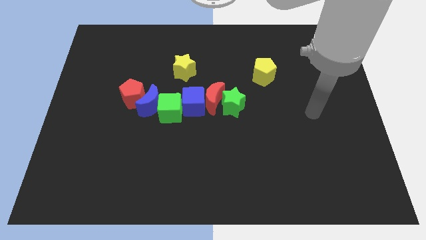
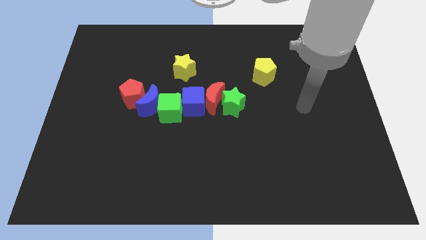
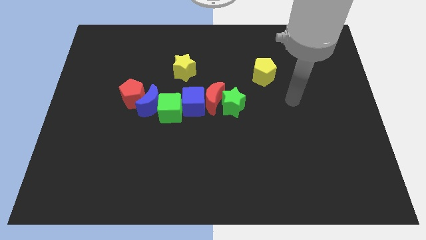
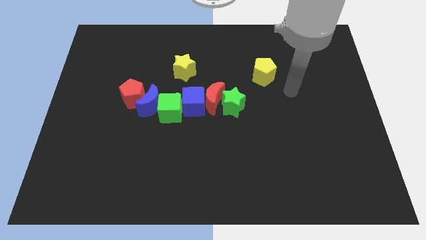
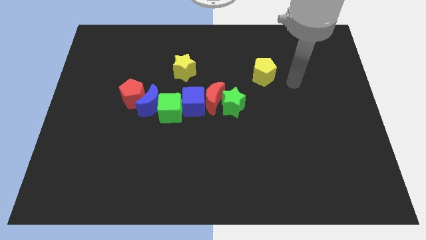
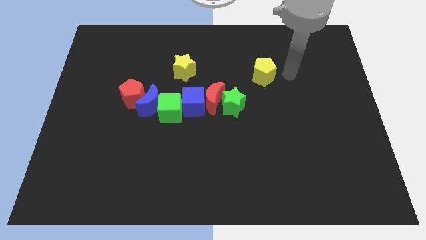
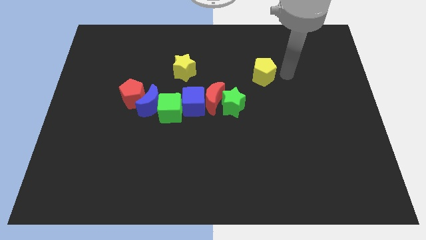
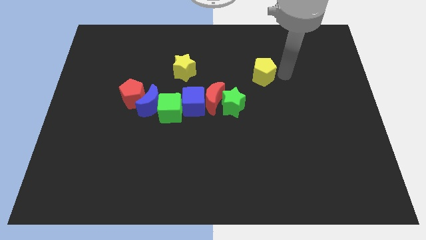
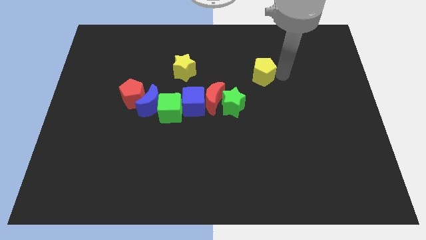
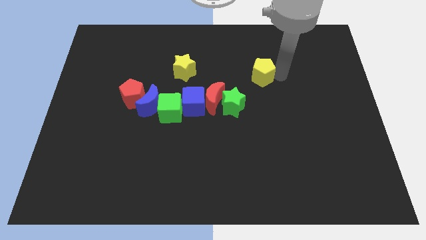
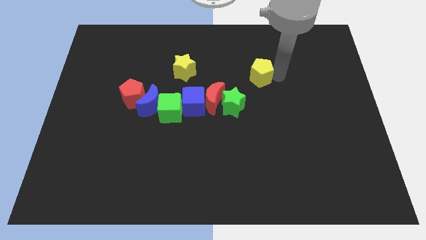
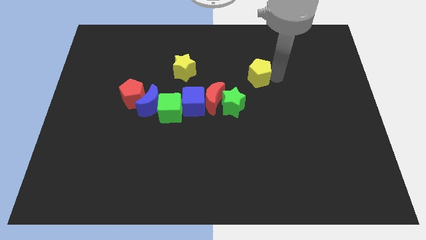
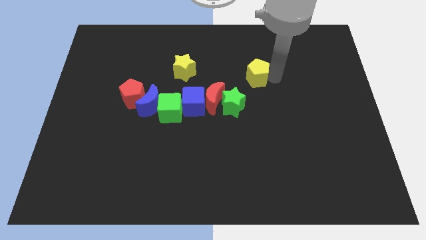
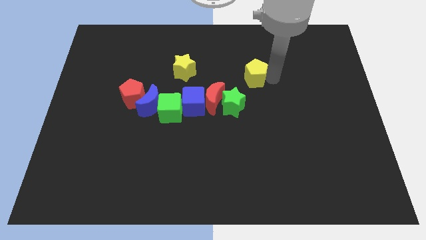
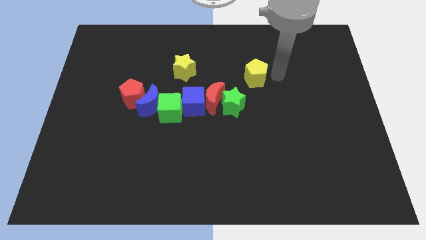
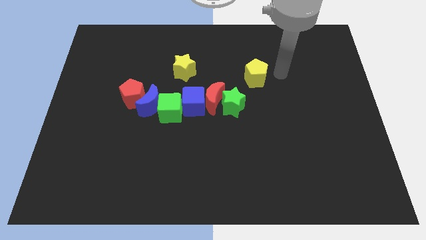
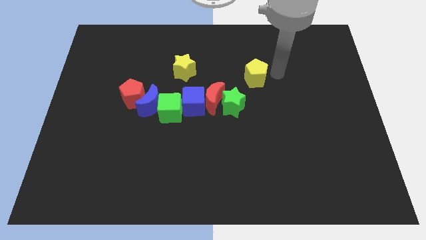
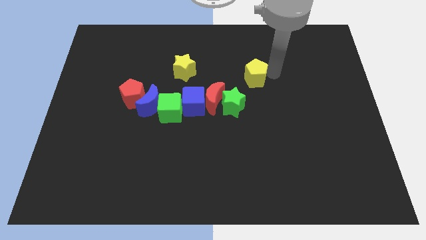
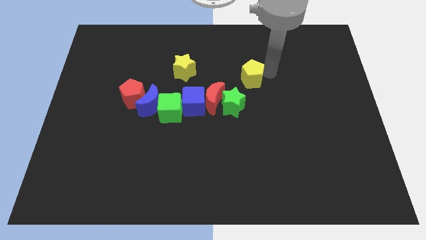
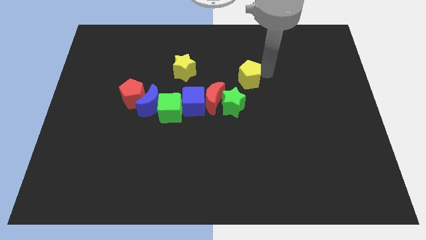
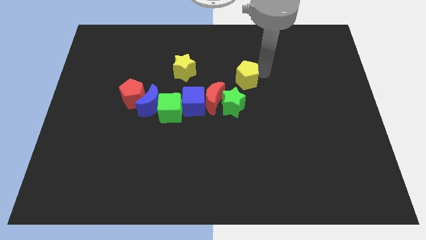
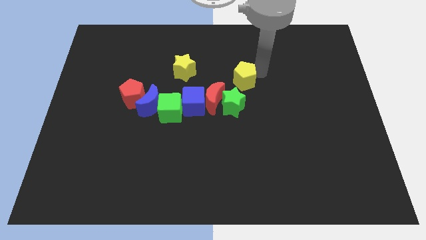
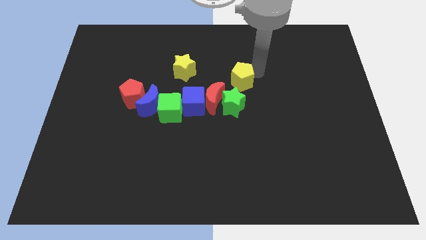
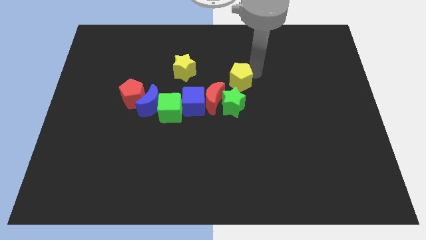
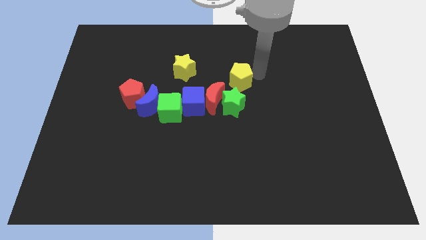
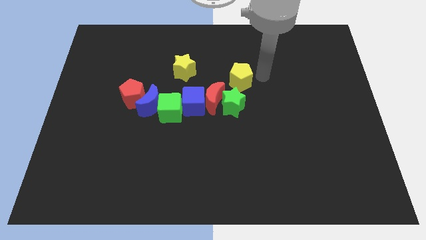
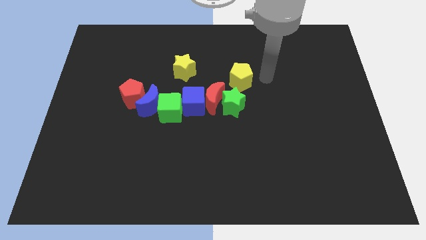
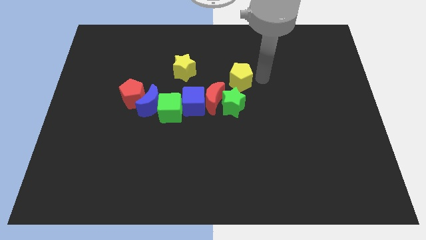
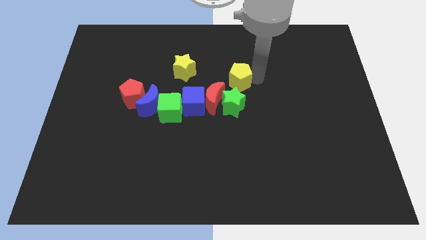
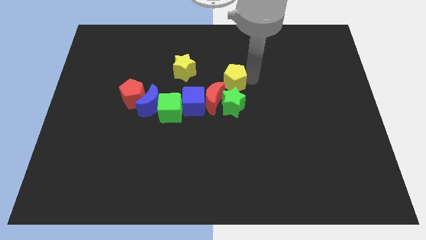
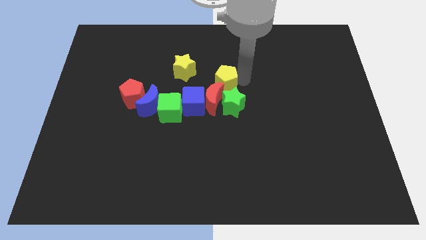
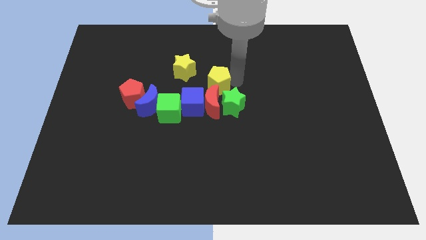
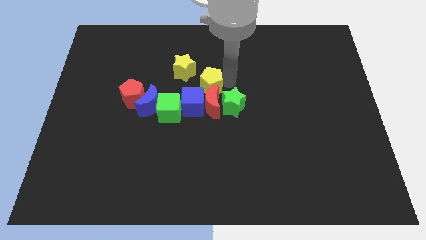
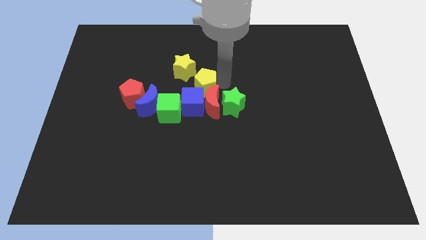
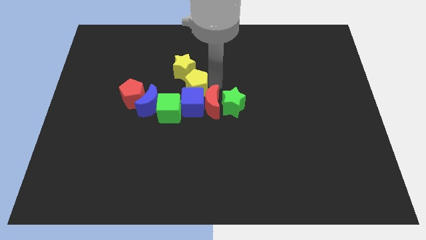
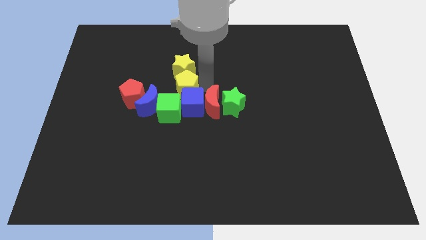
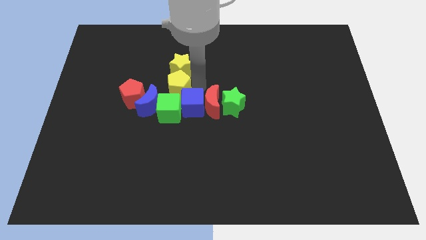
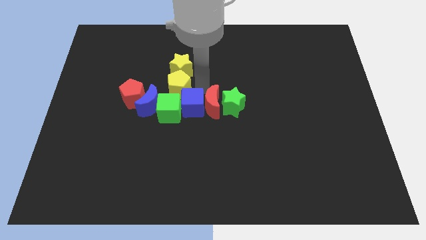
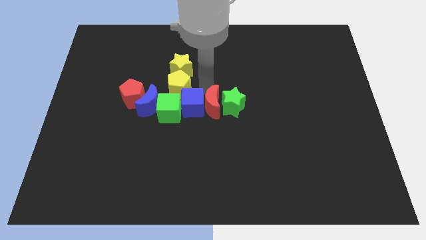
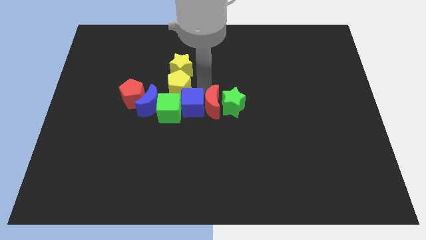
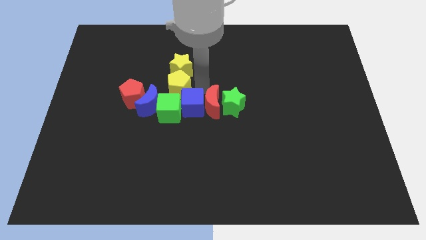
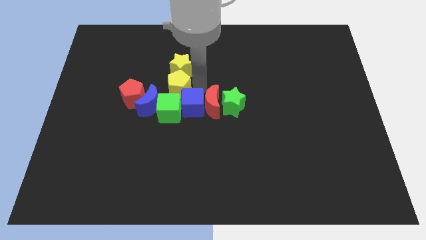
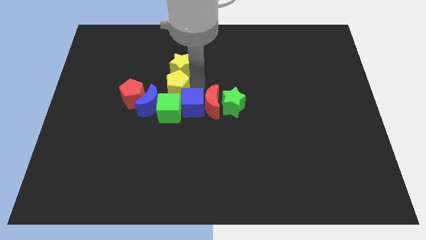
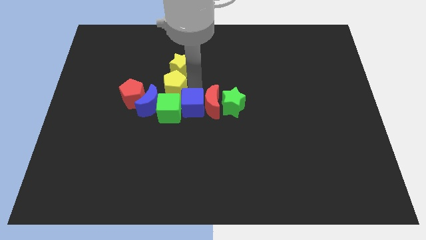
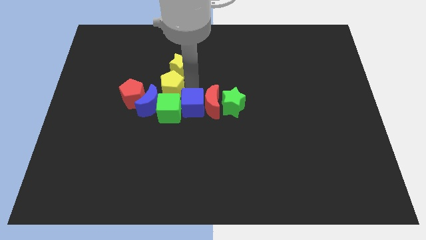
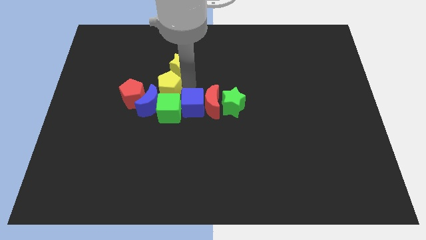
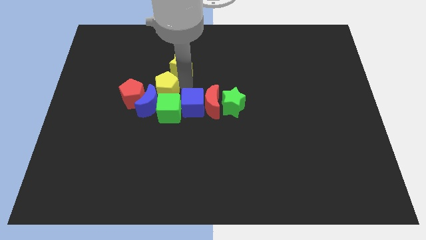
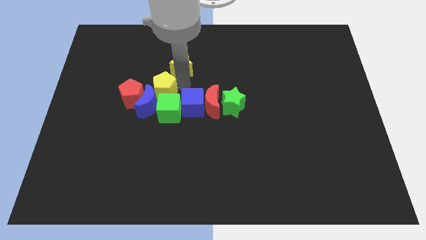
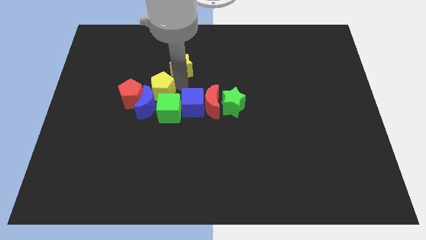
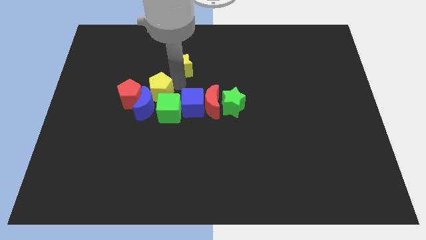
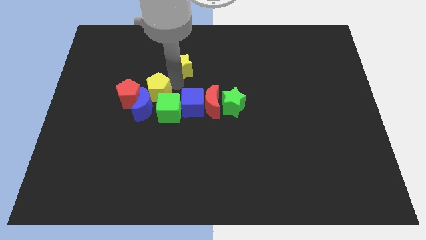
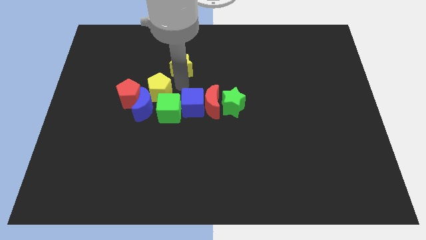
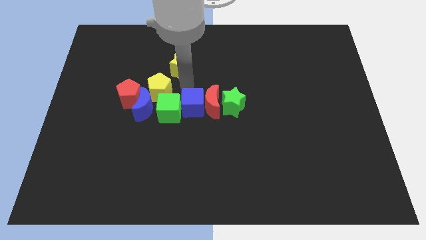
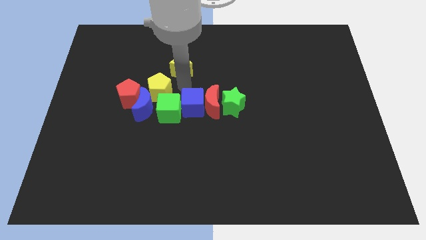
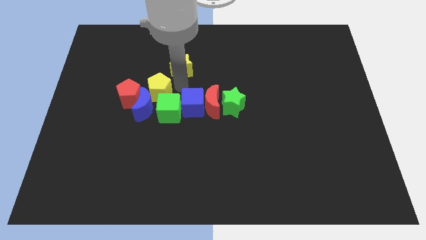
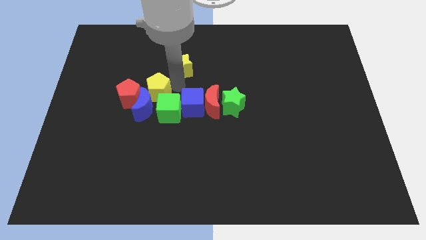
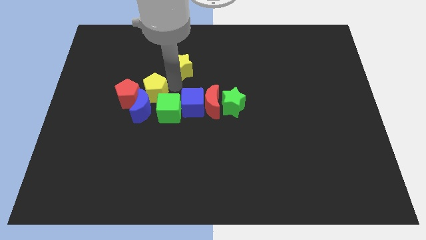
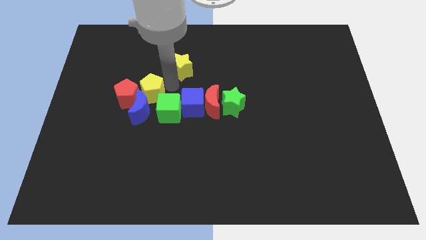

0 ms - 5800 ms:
move the yellow pentagon towards the red pentagon

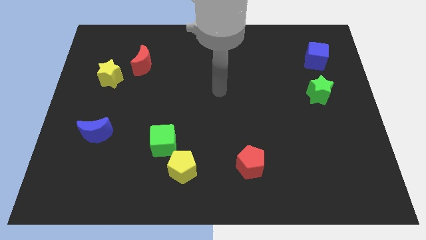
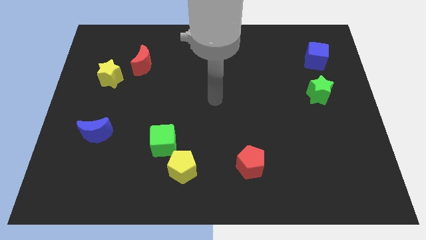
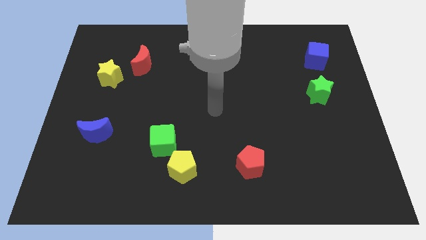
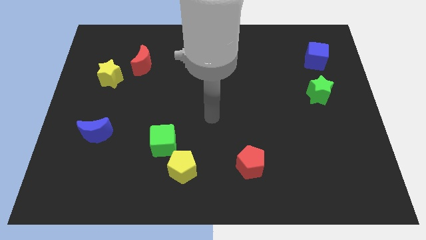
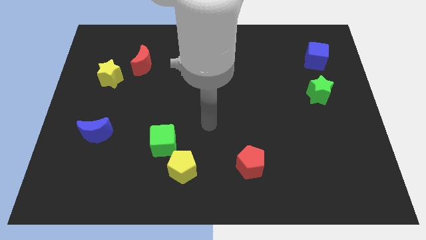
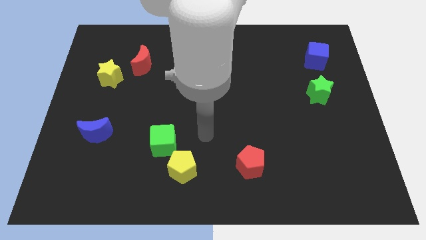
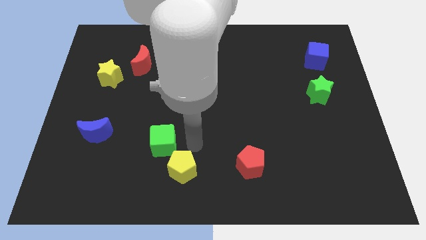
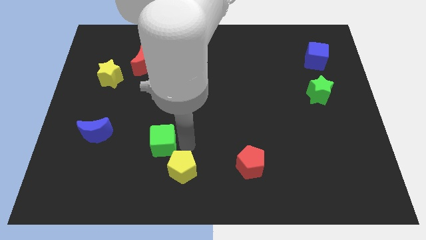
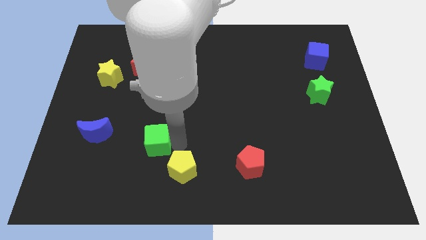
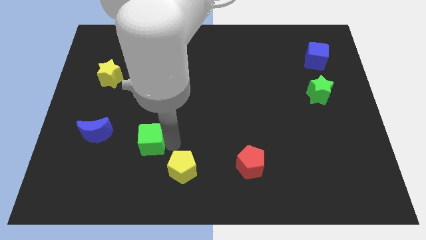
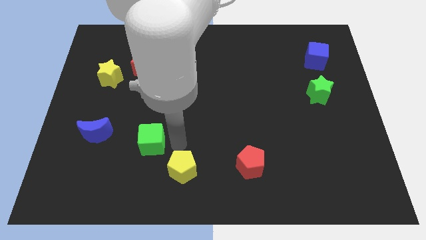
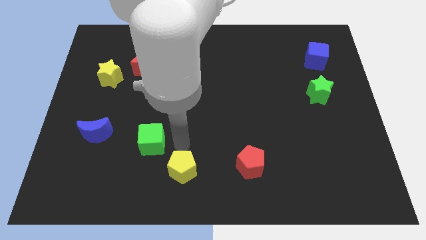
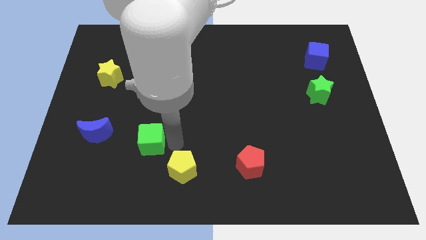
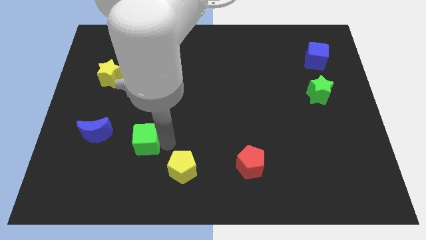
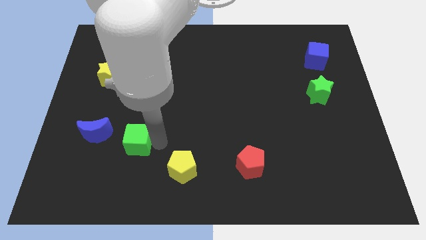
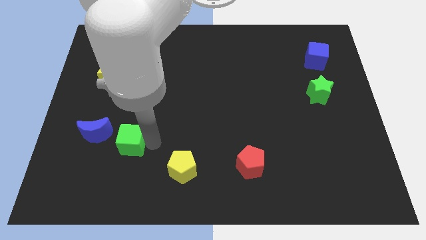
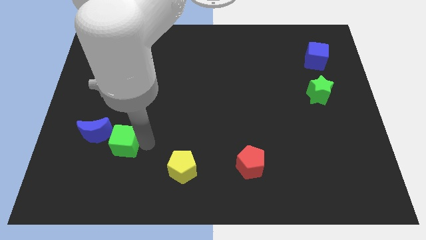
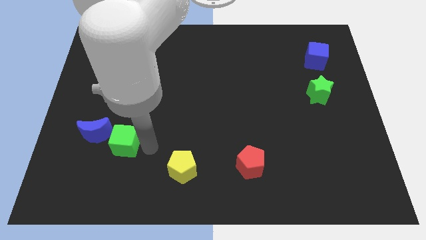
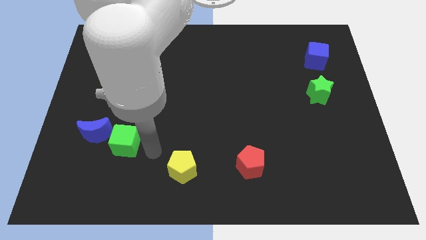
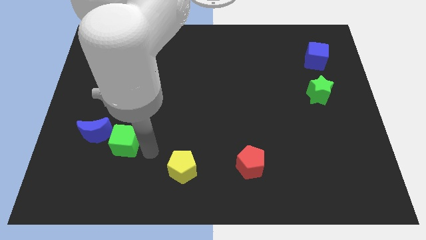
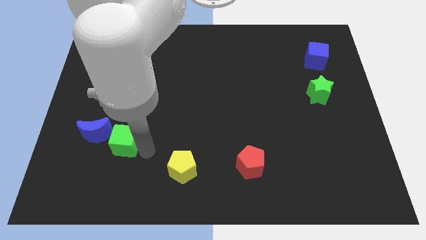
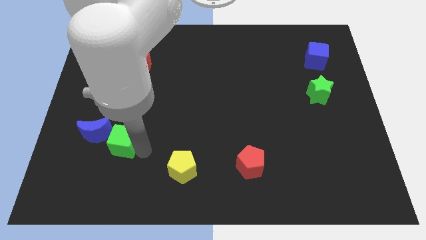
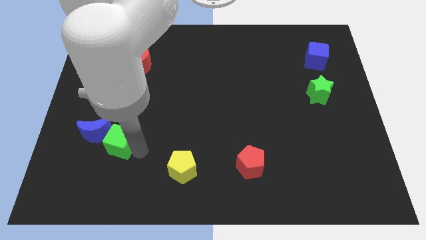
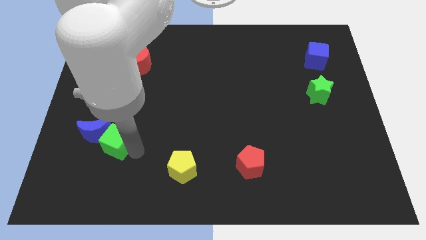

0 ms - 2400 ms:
push the green cube close to the blue moon
